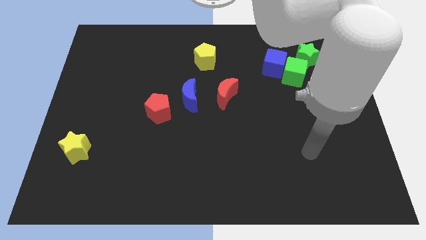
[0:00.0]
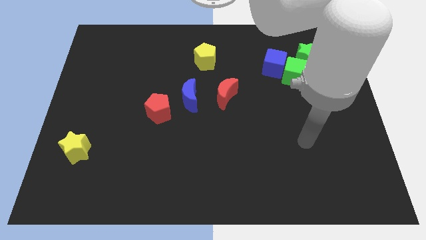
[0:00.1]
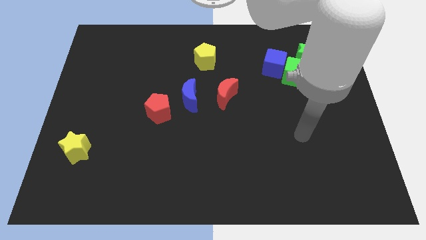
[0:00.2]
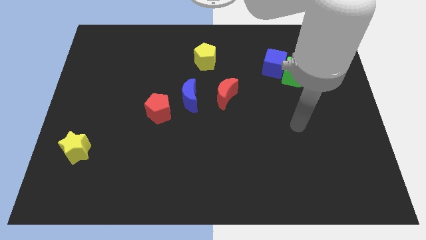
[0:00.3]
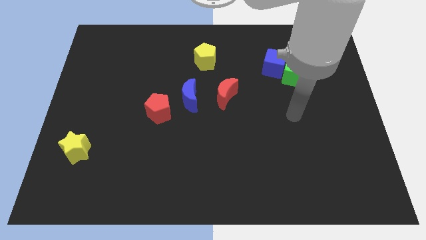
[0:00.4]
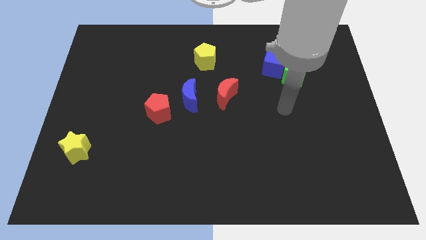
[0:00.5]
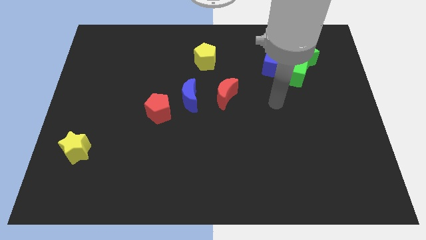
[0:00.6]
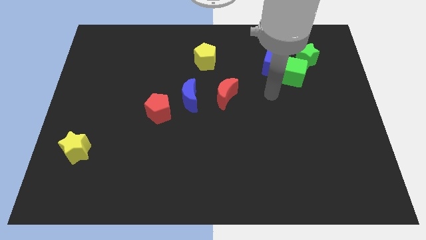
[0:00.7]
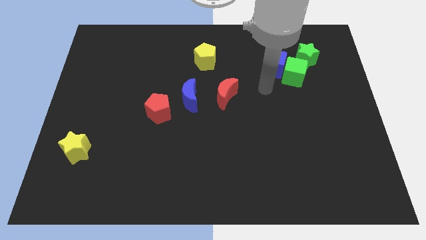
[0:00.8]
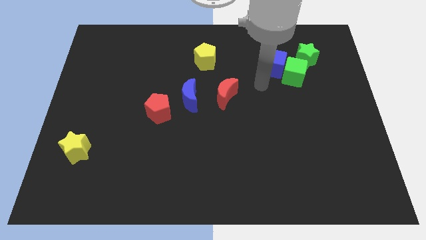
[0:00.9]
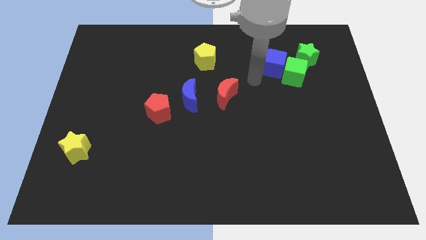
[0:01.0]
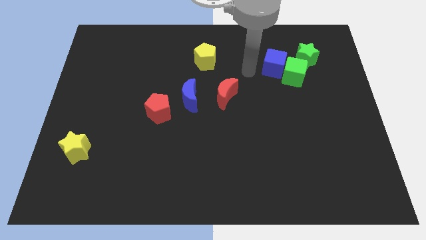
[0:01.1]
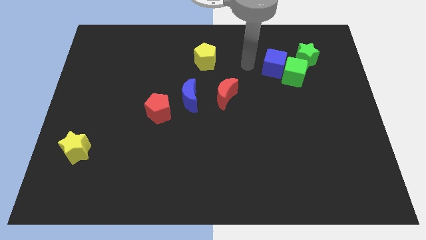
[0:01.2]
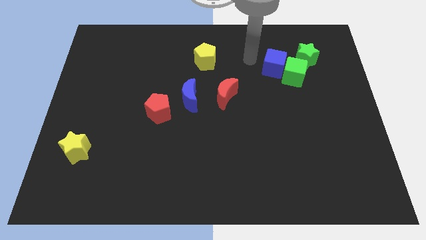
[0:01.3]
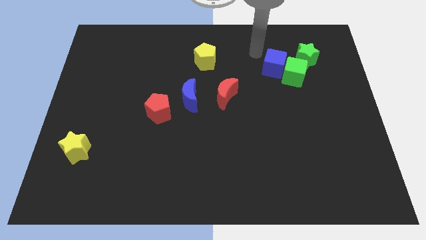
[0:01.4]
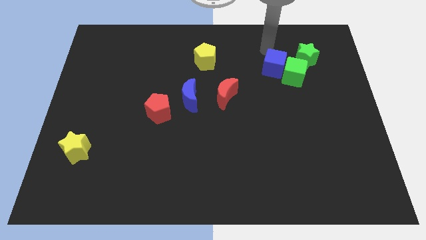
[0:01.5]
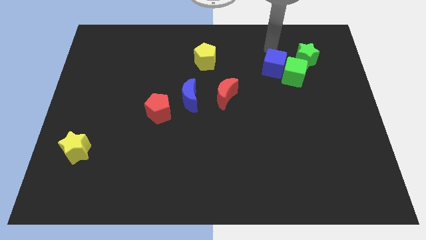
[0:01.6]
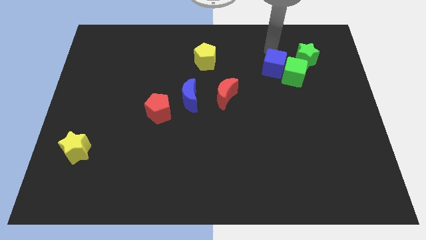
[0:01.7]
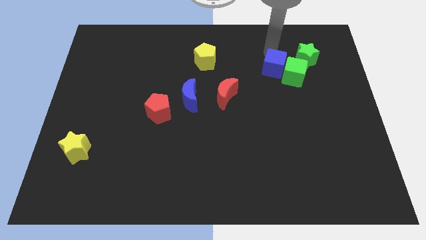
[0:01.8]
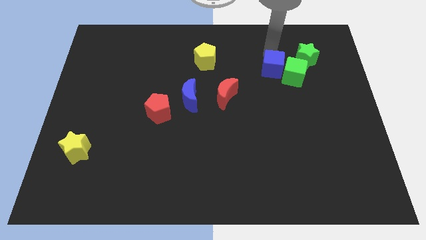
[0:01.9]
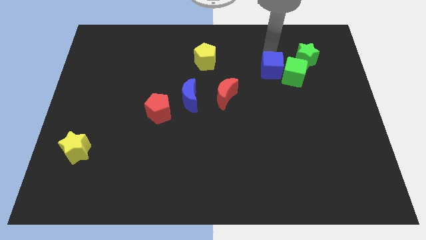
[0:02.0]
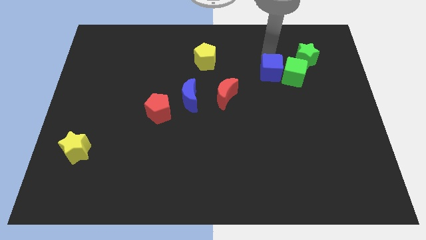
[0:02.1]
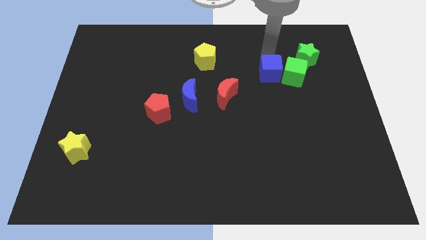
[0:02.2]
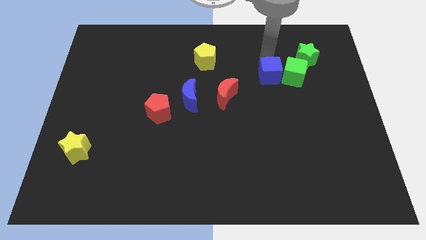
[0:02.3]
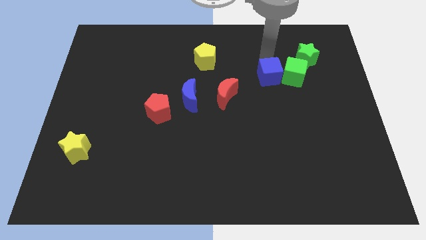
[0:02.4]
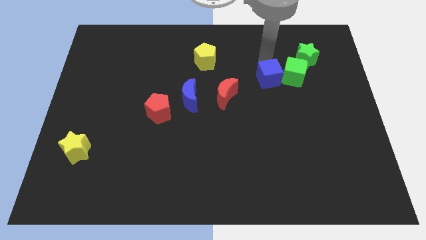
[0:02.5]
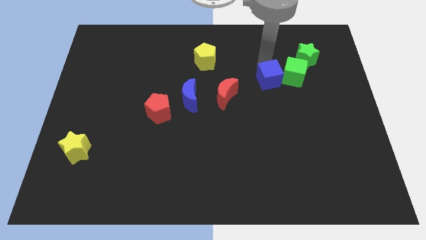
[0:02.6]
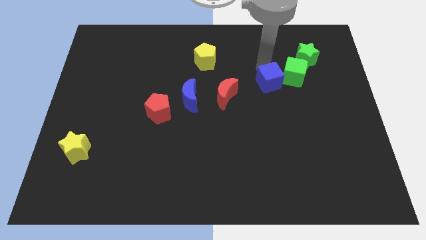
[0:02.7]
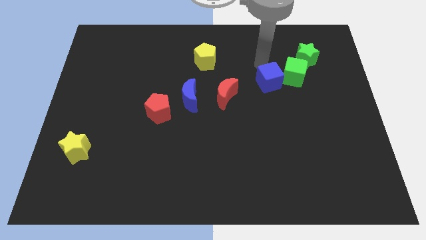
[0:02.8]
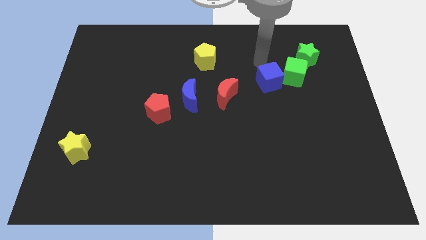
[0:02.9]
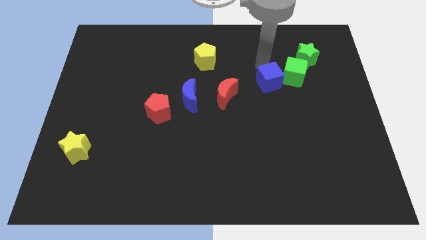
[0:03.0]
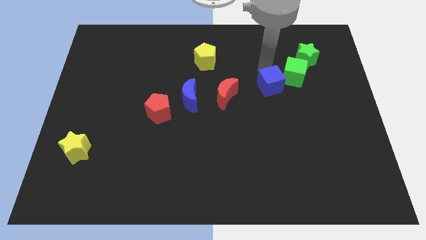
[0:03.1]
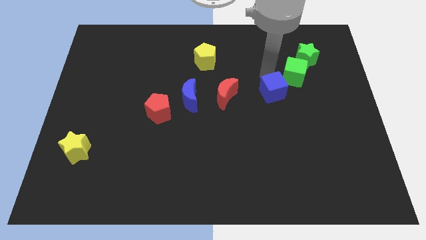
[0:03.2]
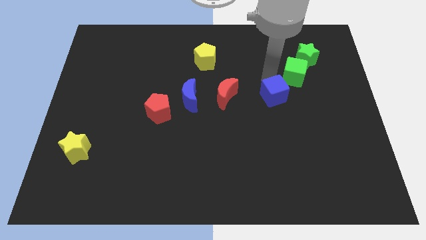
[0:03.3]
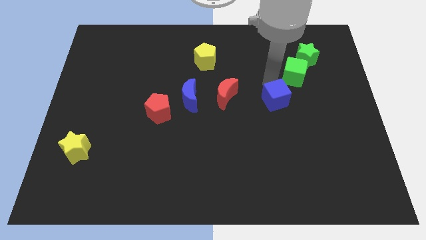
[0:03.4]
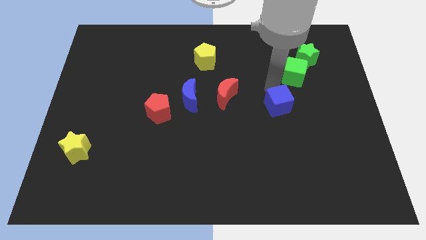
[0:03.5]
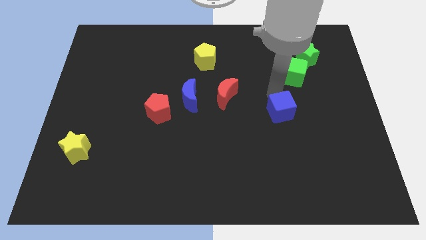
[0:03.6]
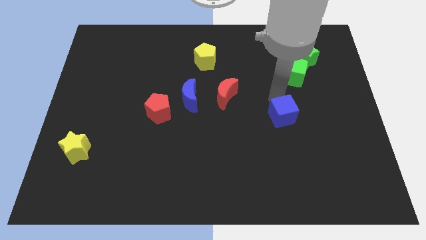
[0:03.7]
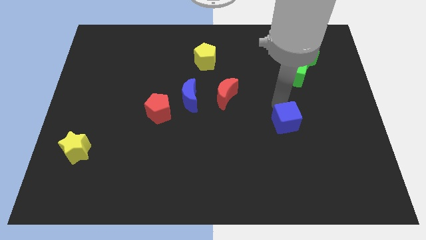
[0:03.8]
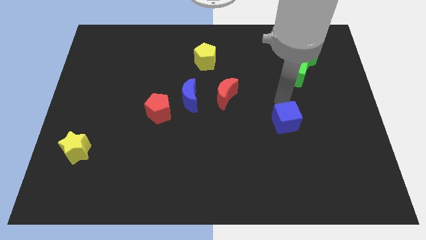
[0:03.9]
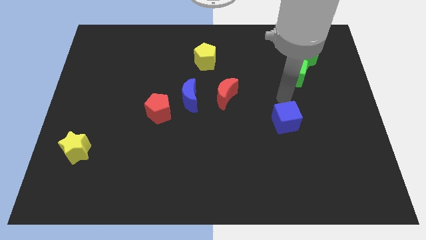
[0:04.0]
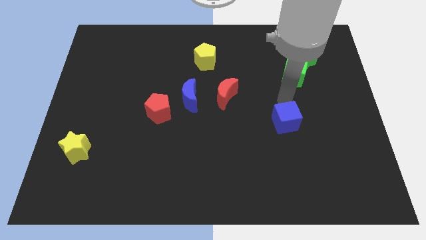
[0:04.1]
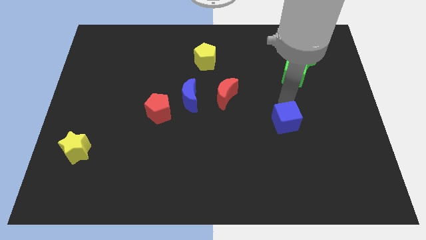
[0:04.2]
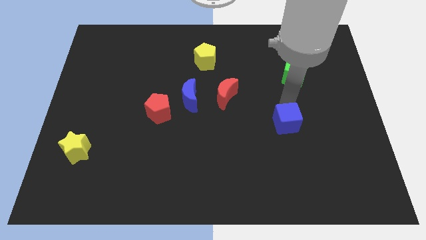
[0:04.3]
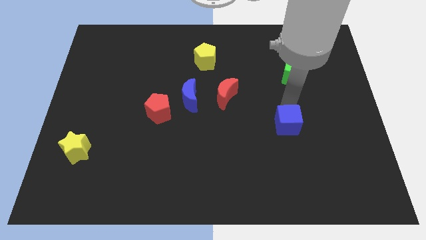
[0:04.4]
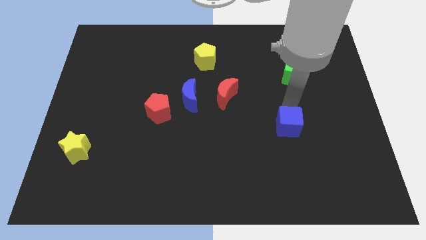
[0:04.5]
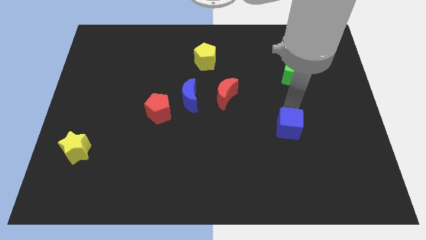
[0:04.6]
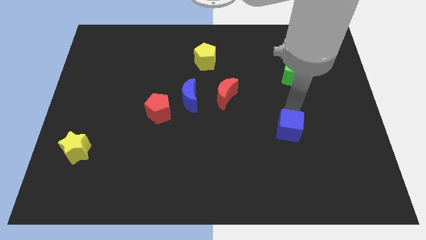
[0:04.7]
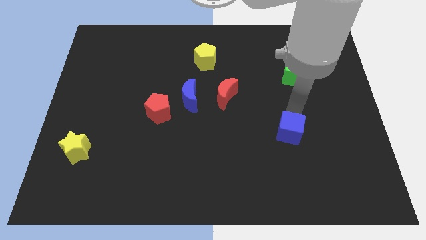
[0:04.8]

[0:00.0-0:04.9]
slide the blue cube downwards

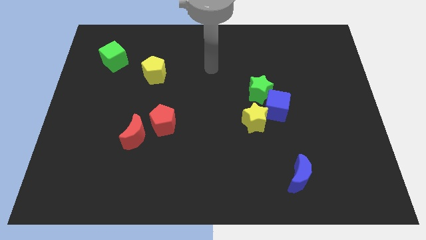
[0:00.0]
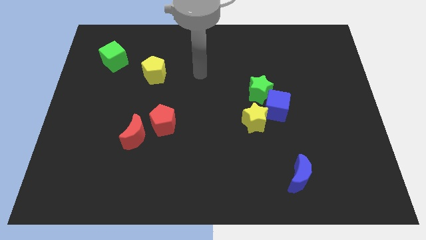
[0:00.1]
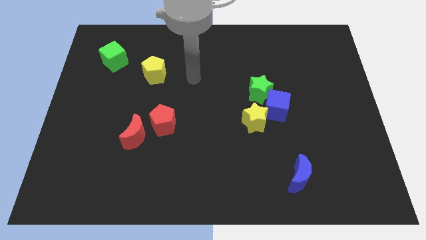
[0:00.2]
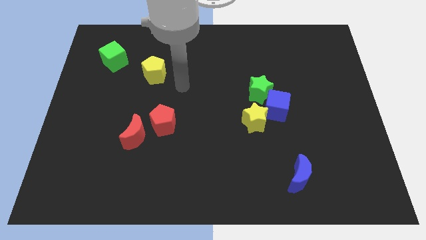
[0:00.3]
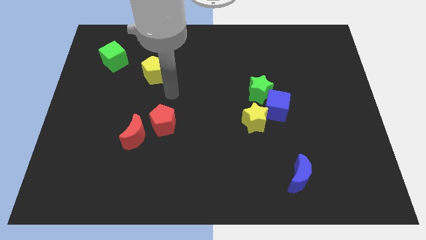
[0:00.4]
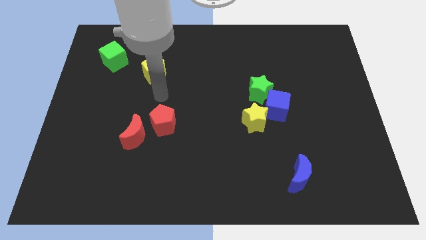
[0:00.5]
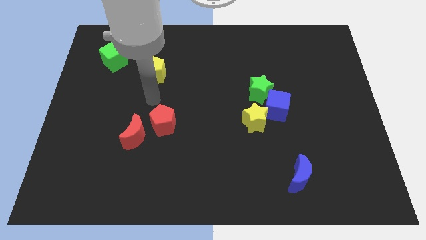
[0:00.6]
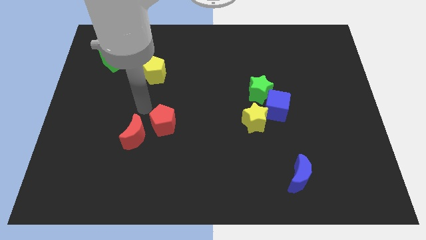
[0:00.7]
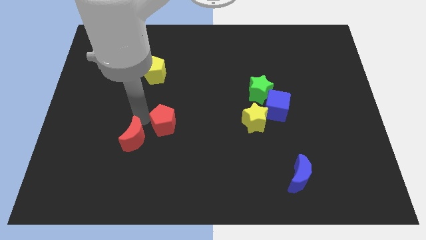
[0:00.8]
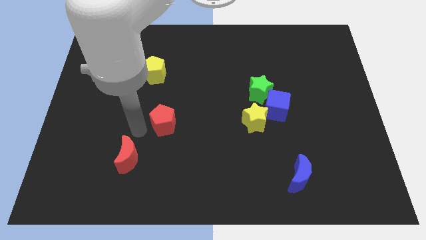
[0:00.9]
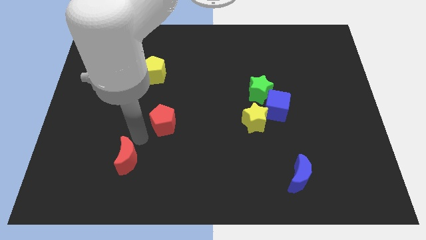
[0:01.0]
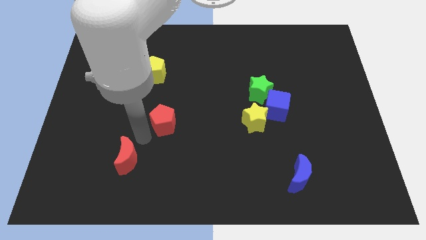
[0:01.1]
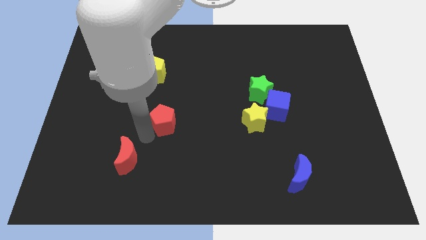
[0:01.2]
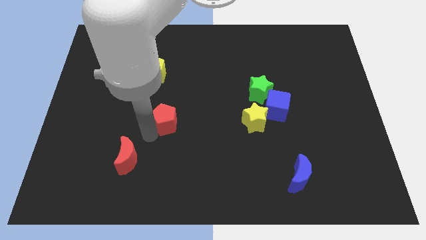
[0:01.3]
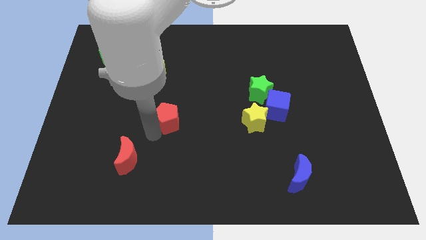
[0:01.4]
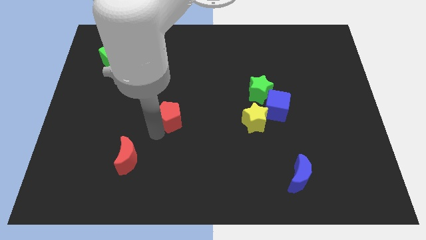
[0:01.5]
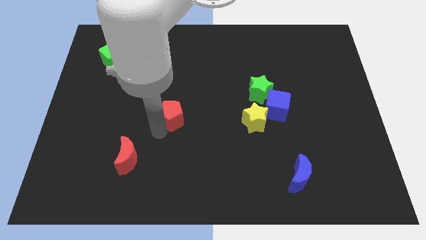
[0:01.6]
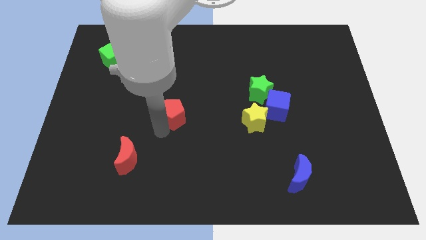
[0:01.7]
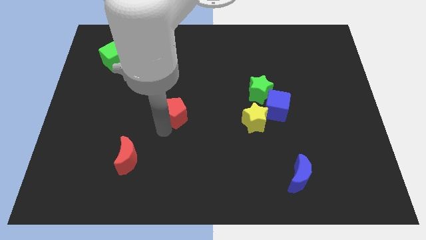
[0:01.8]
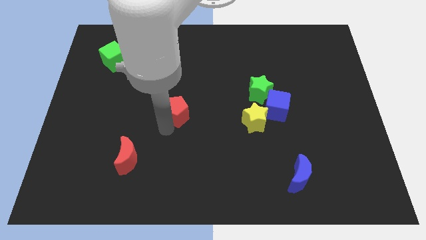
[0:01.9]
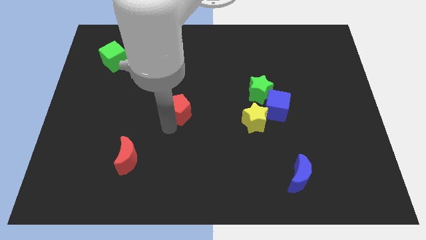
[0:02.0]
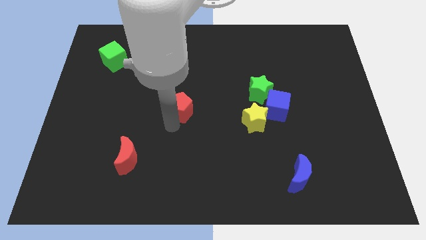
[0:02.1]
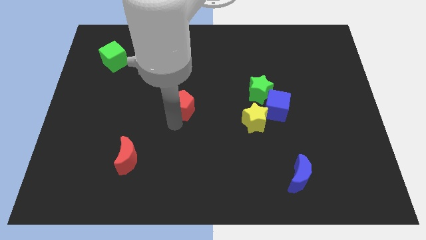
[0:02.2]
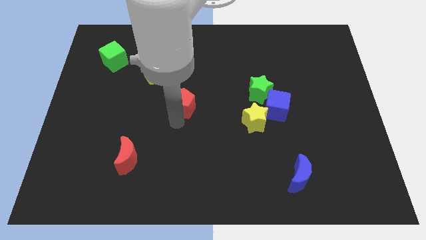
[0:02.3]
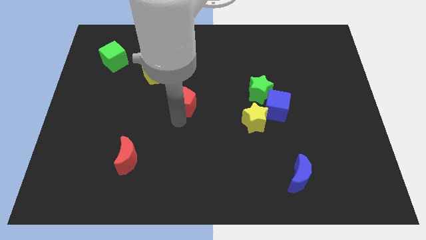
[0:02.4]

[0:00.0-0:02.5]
push the red pentagon up and right diagonally a little

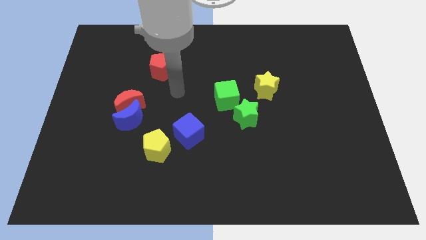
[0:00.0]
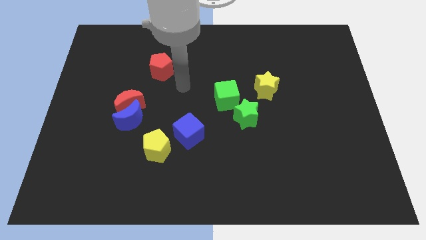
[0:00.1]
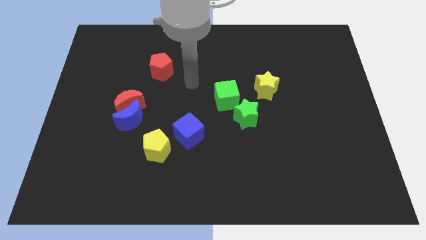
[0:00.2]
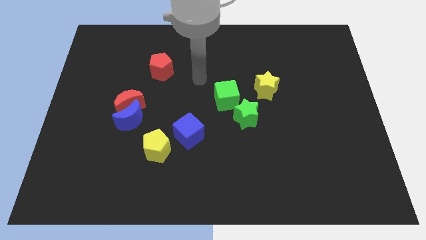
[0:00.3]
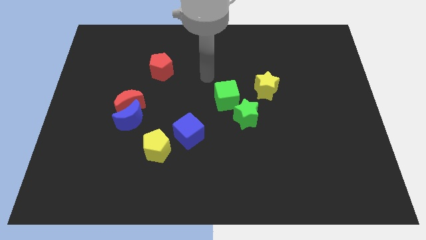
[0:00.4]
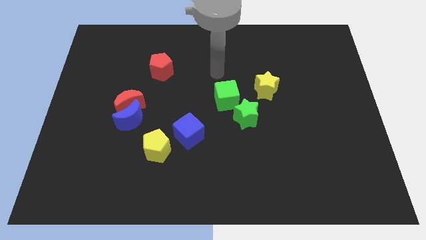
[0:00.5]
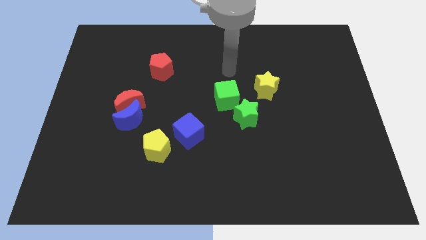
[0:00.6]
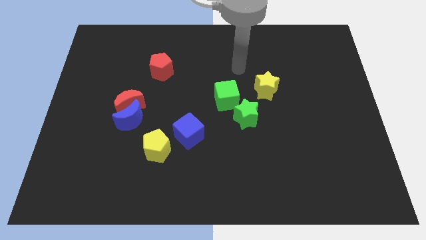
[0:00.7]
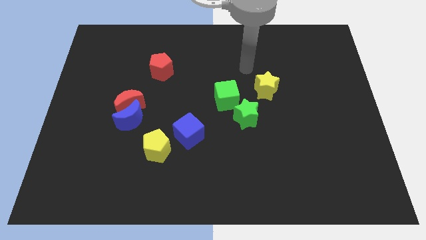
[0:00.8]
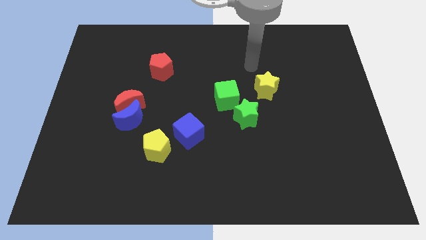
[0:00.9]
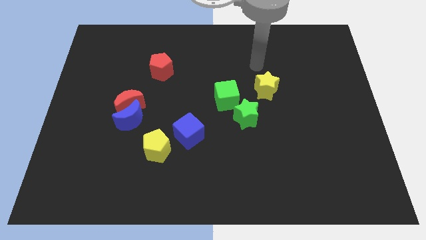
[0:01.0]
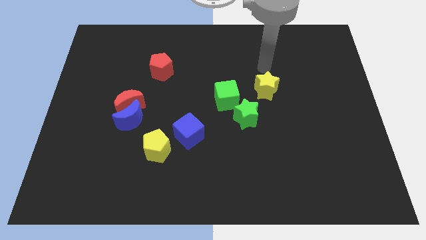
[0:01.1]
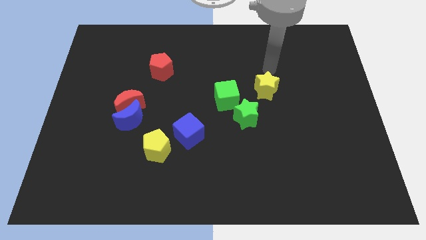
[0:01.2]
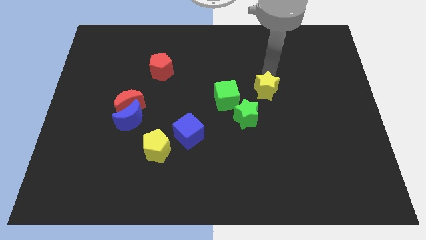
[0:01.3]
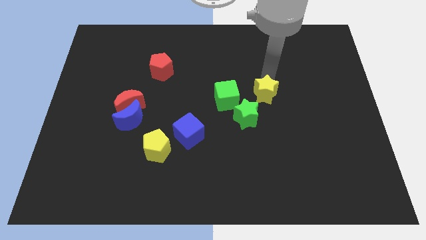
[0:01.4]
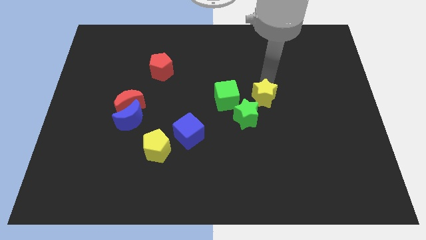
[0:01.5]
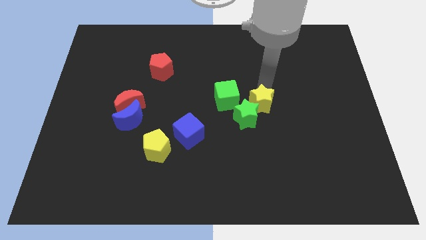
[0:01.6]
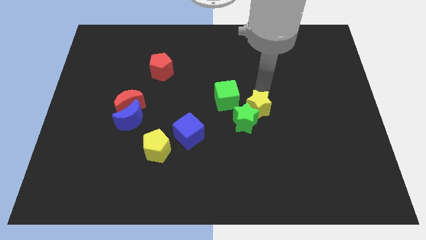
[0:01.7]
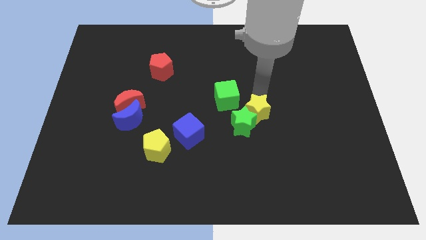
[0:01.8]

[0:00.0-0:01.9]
slide the yellow star downwards a little
